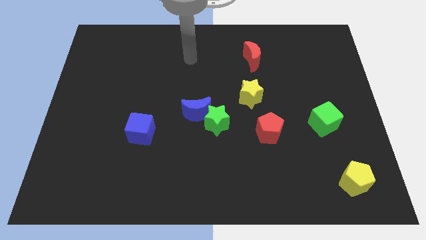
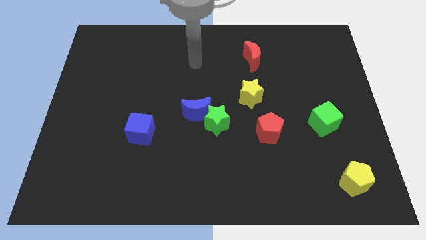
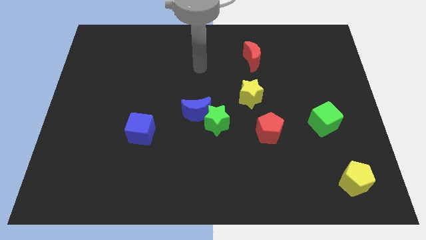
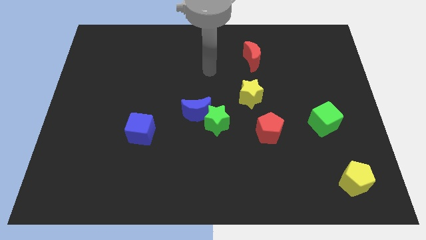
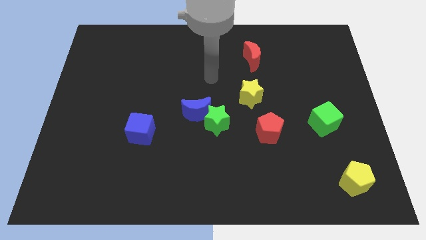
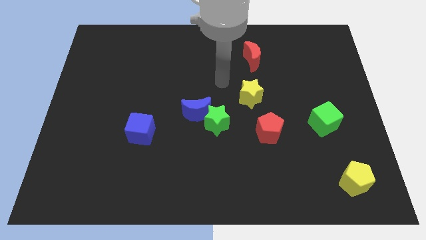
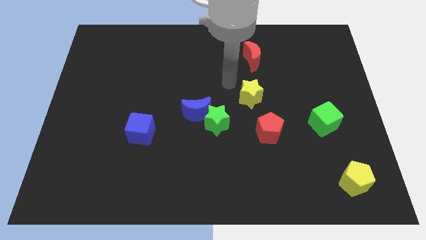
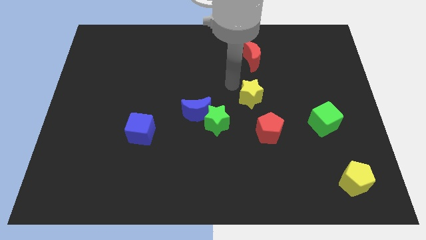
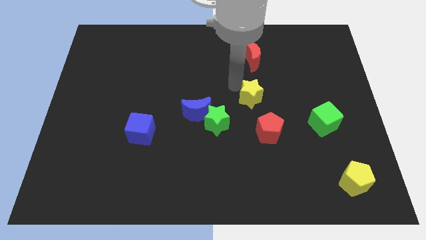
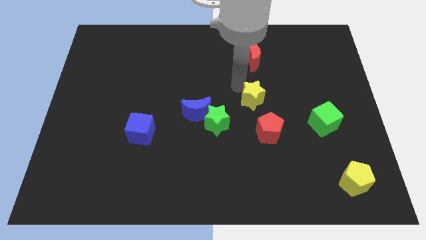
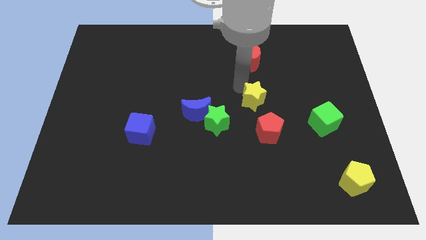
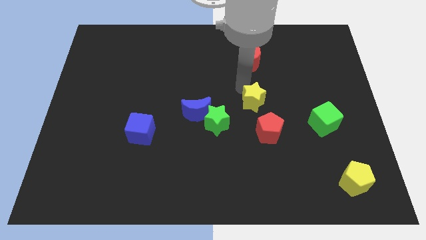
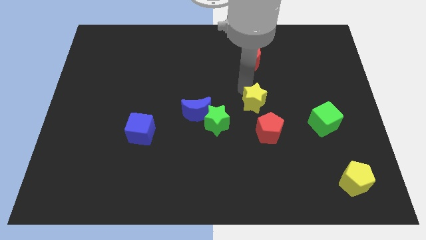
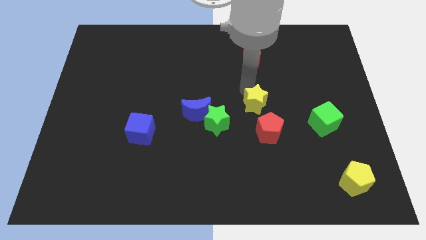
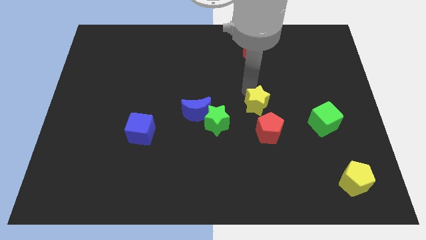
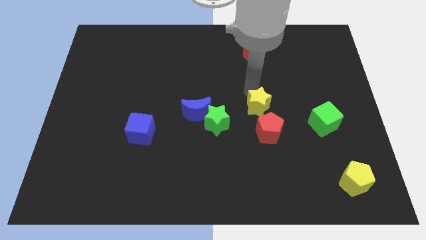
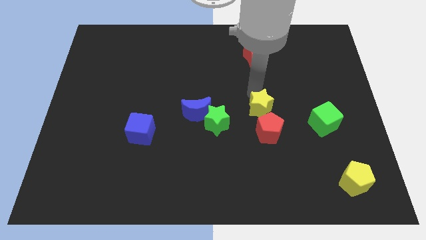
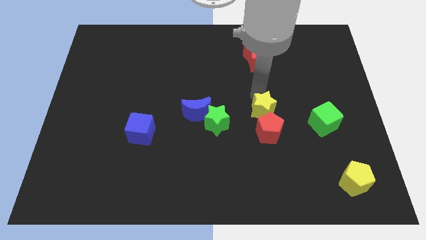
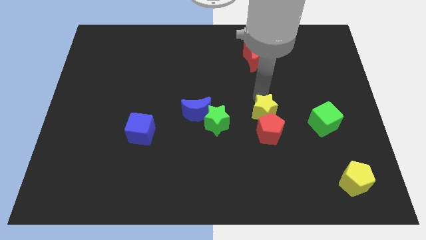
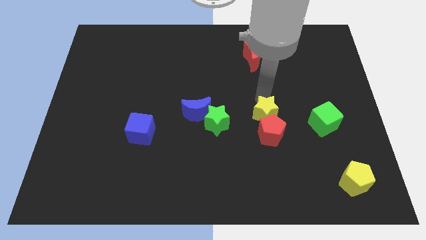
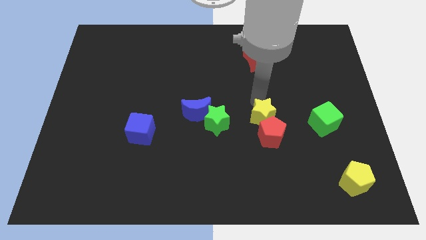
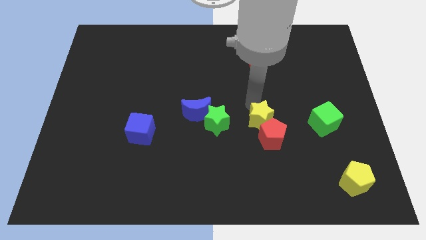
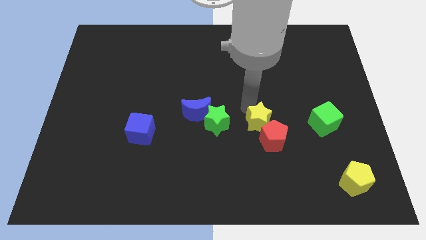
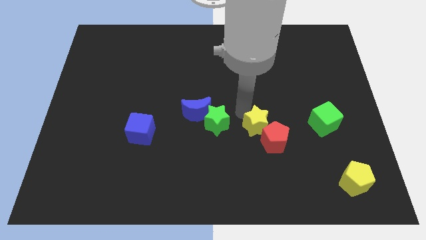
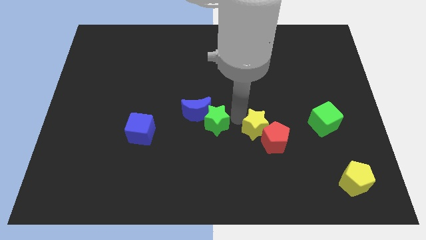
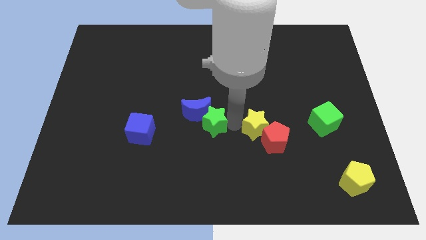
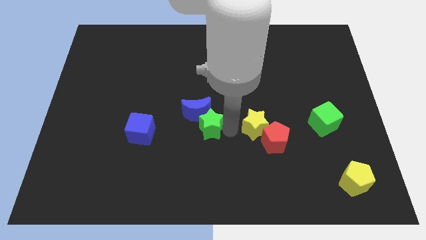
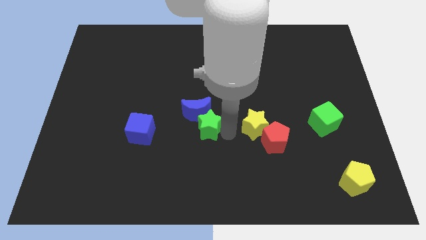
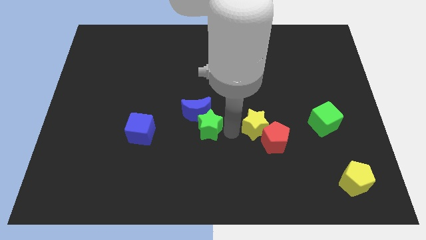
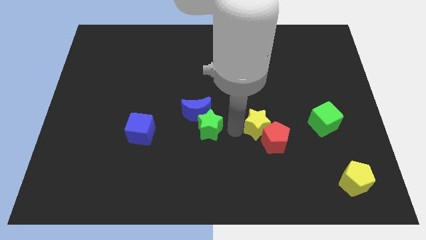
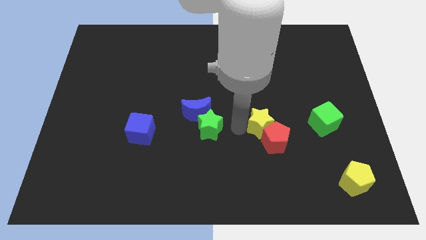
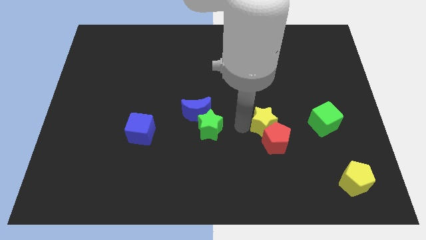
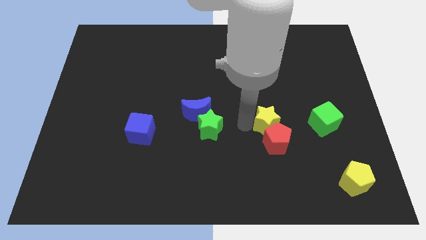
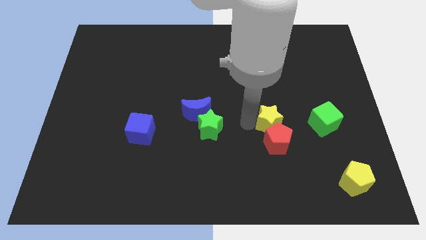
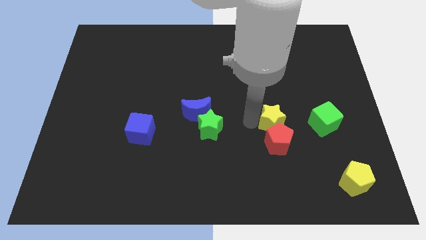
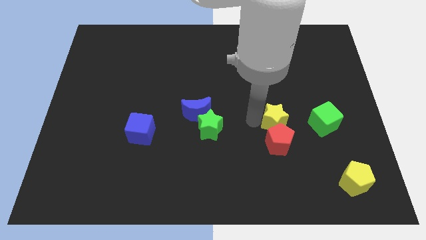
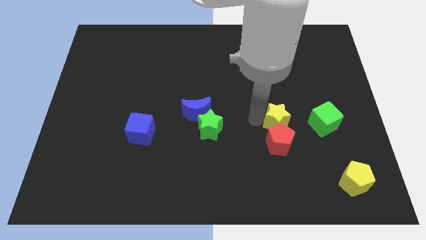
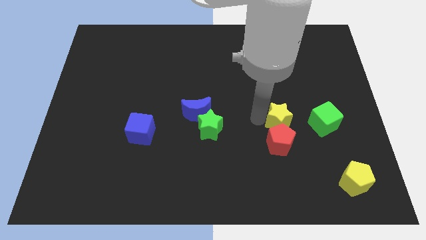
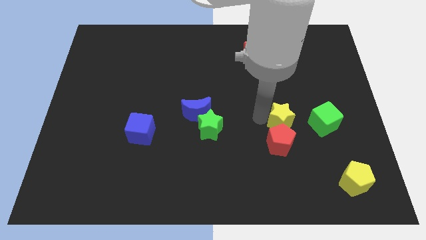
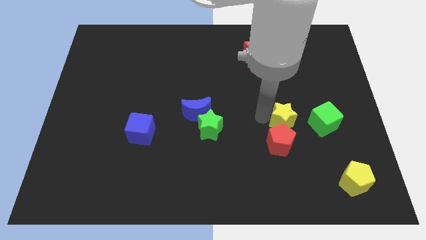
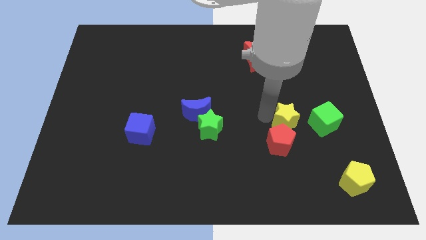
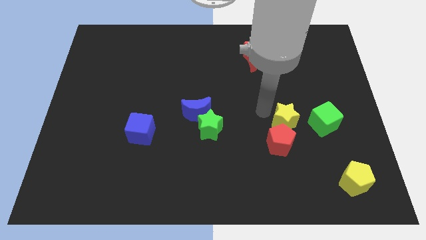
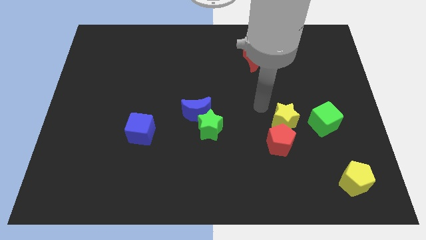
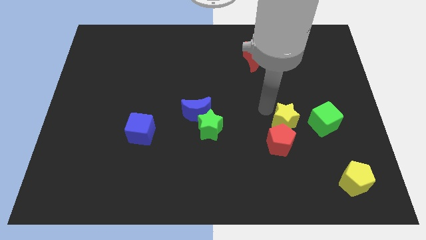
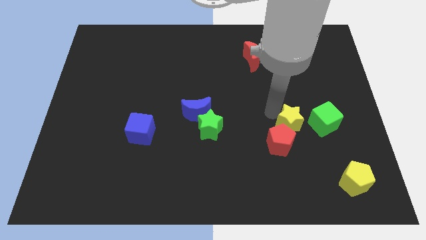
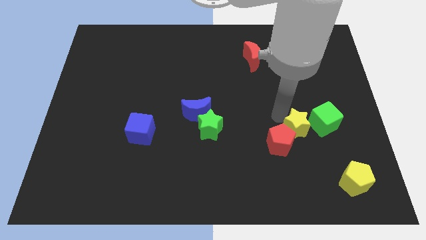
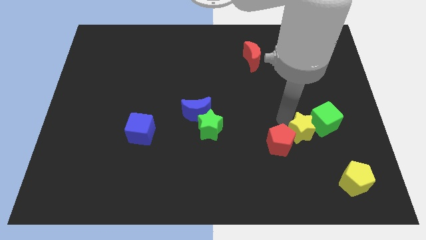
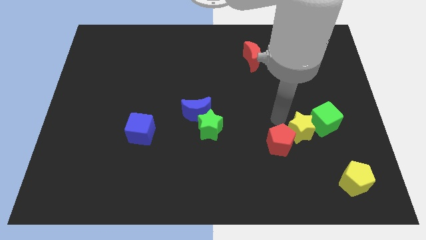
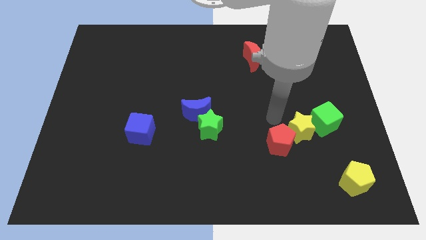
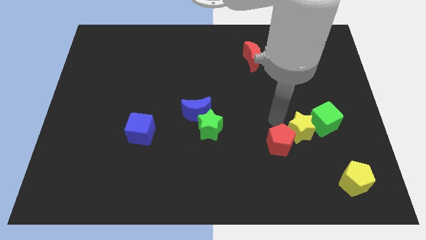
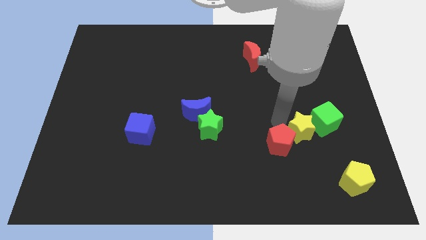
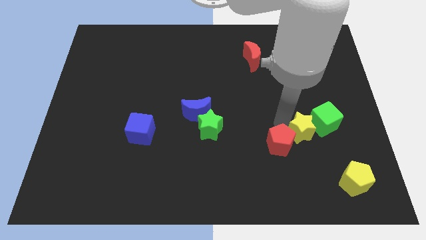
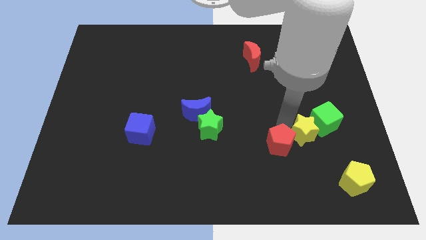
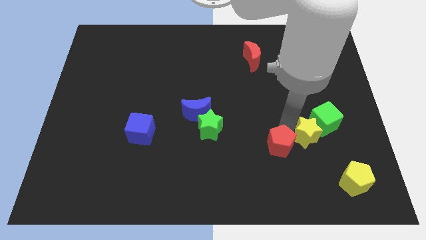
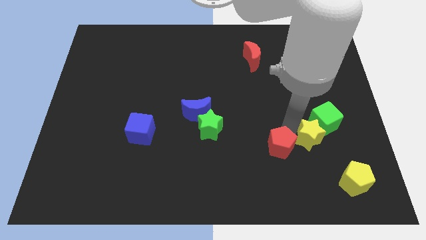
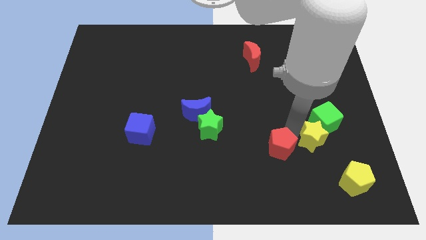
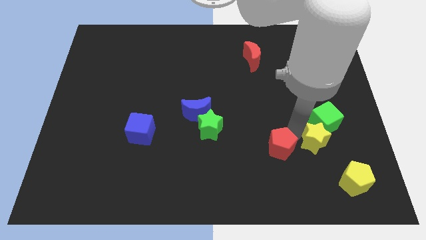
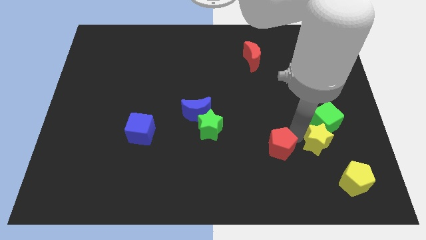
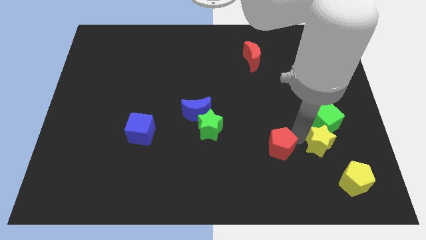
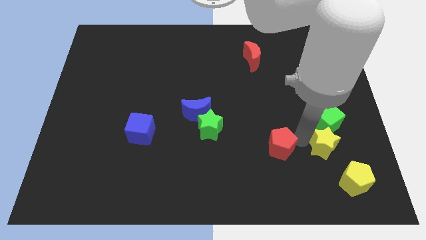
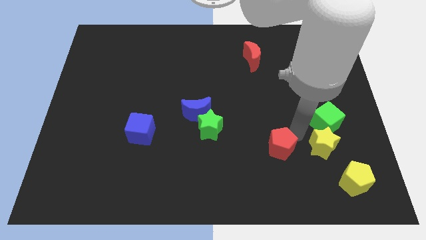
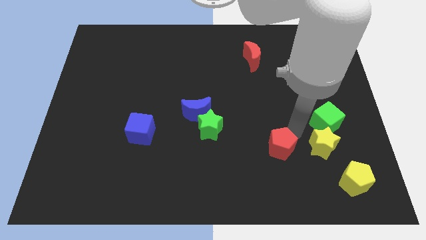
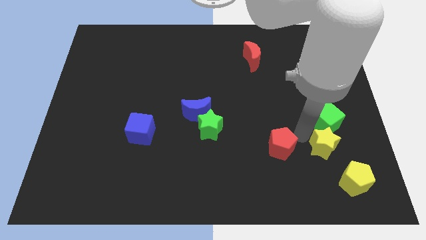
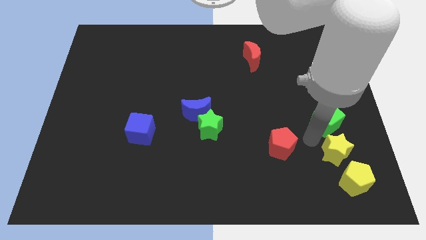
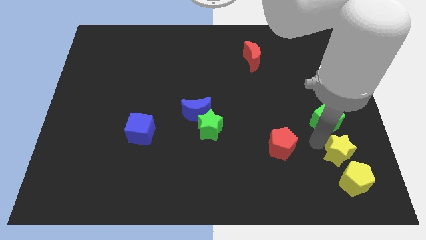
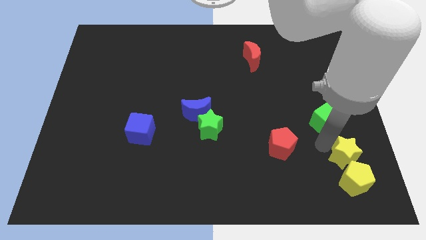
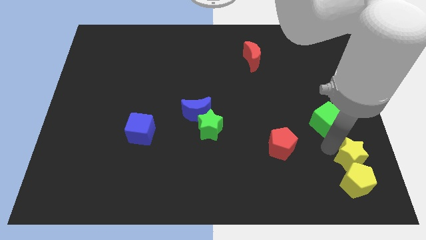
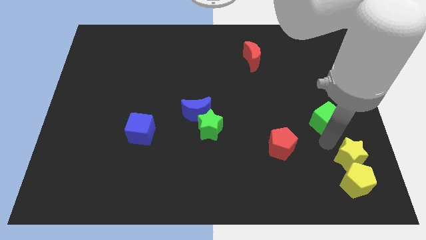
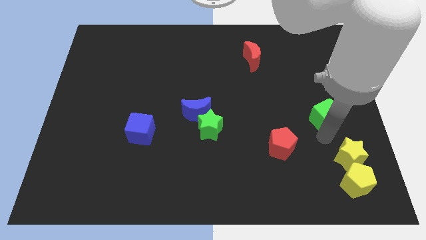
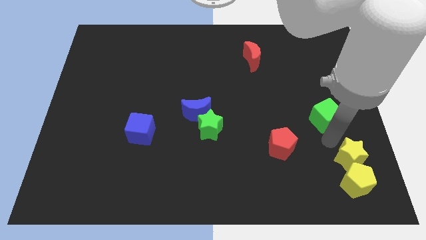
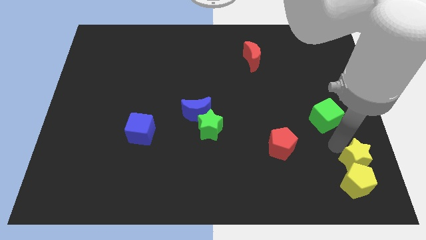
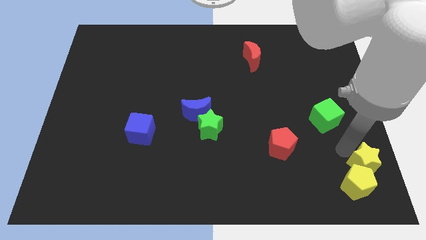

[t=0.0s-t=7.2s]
put the yellow star to the bottom right
